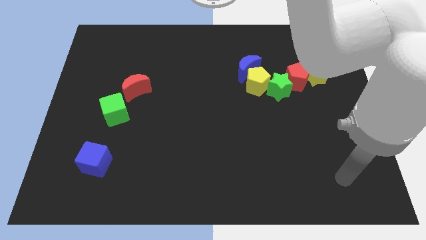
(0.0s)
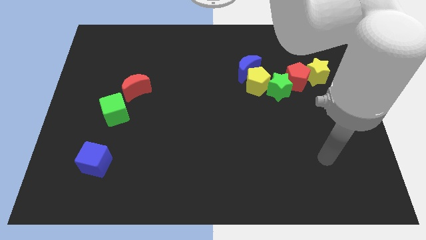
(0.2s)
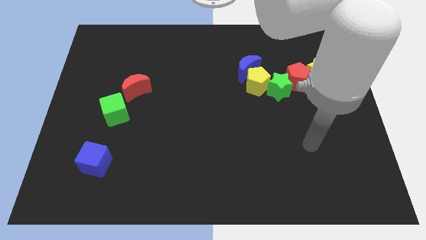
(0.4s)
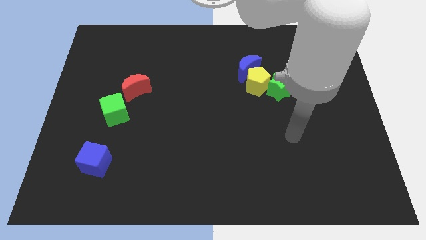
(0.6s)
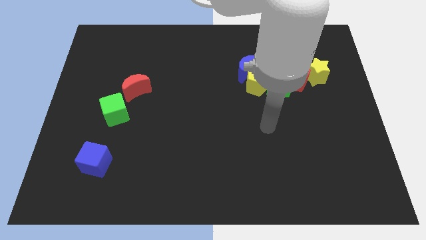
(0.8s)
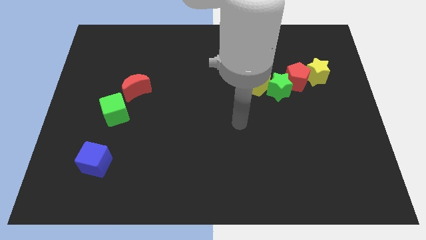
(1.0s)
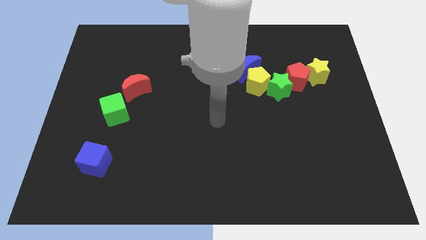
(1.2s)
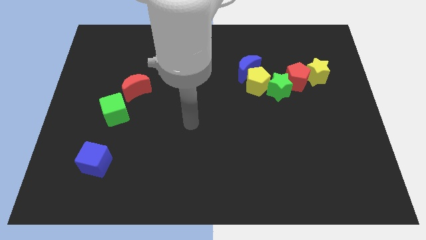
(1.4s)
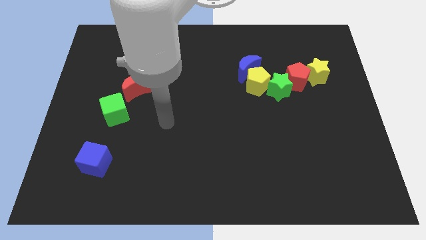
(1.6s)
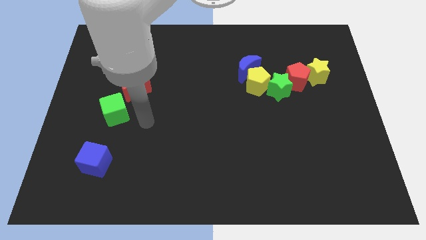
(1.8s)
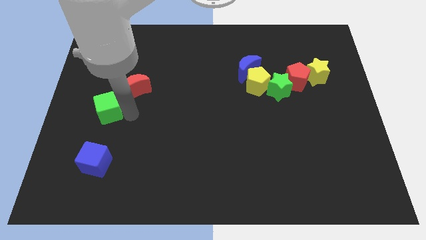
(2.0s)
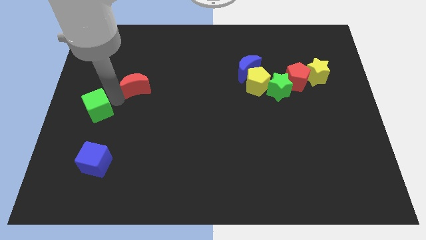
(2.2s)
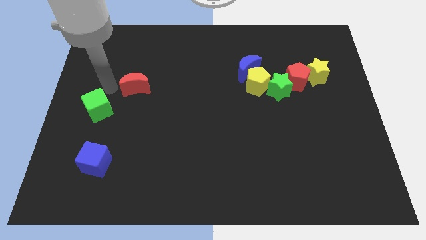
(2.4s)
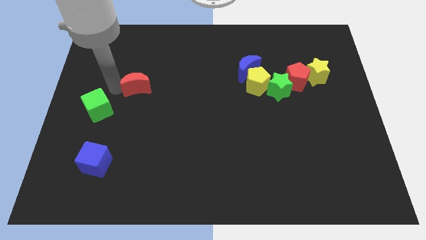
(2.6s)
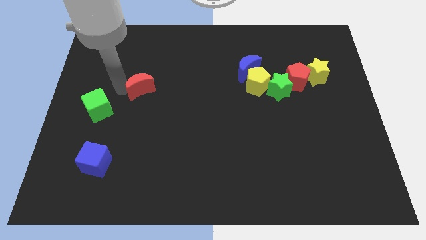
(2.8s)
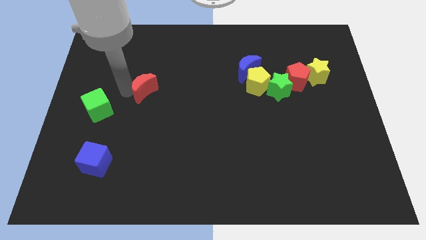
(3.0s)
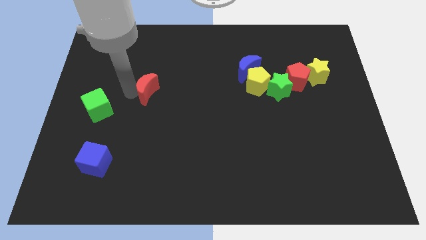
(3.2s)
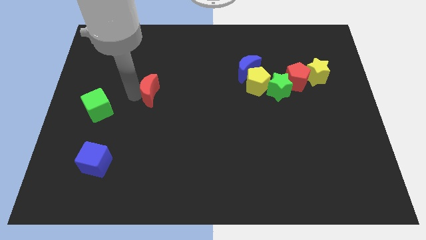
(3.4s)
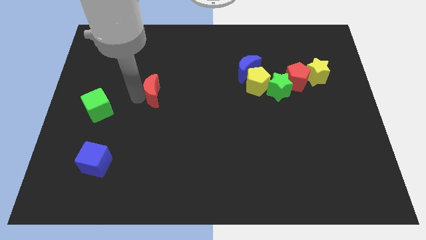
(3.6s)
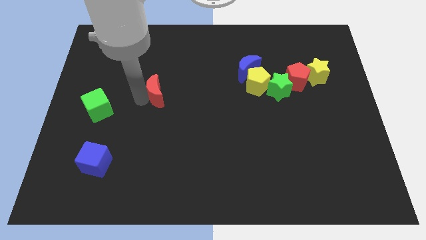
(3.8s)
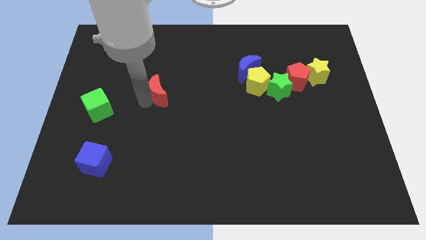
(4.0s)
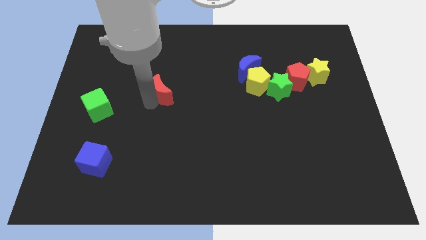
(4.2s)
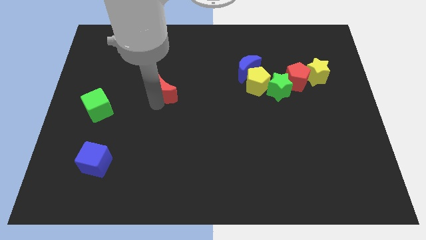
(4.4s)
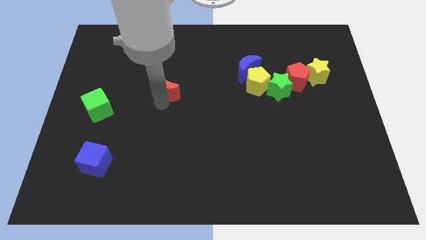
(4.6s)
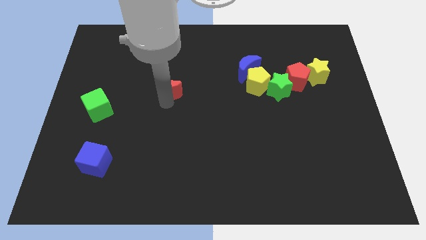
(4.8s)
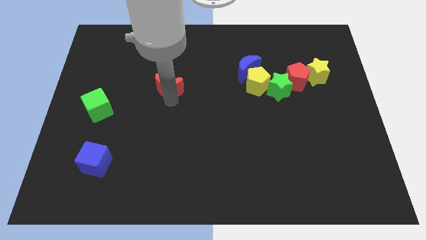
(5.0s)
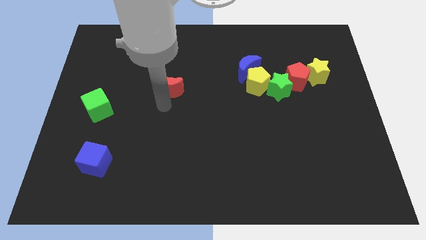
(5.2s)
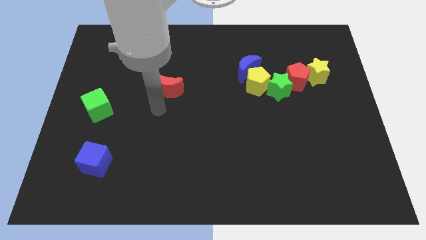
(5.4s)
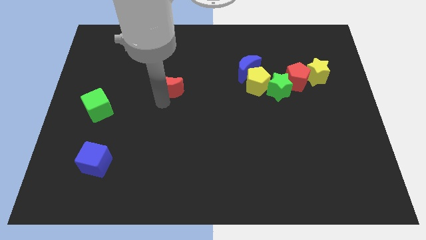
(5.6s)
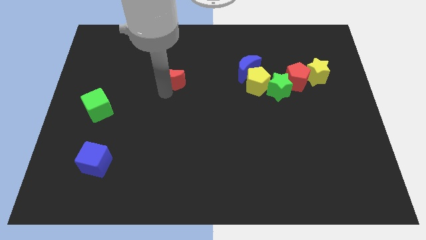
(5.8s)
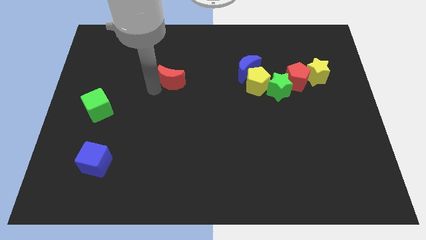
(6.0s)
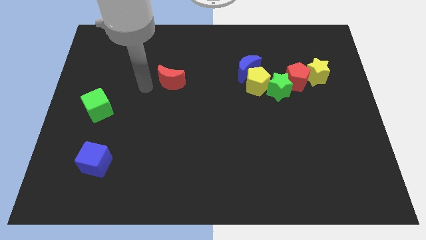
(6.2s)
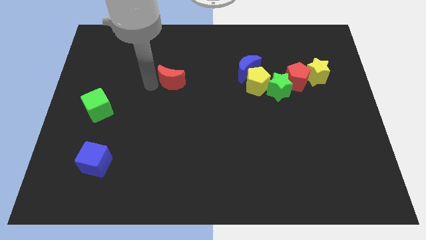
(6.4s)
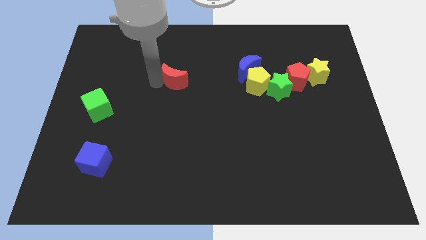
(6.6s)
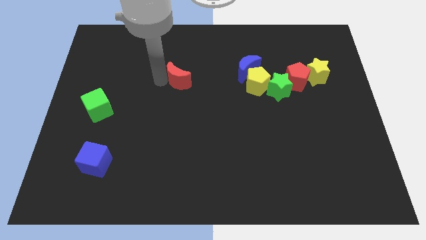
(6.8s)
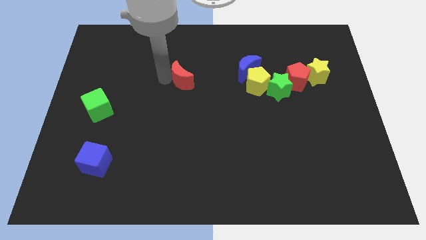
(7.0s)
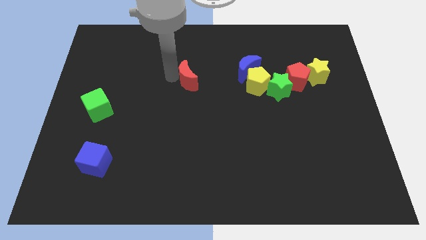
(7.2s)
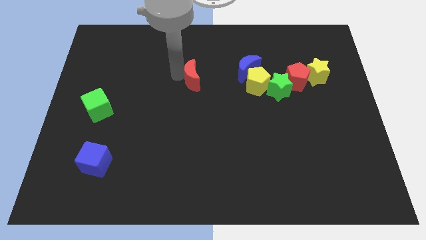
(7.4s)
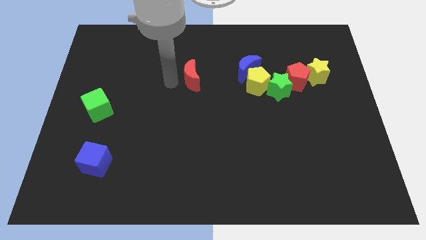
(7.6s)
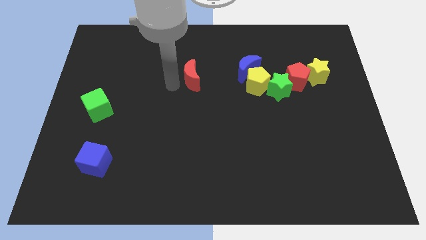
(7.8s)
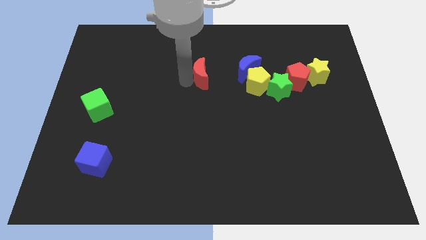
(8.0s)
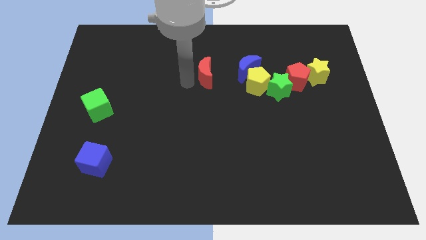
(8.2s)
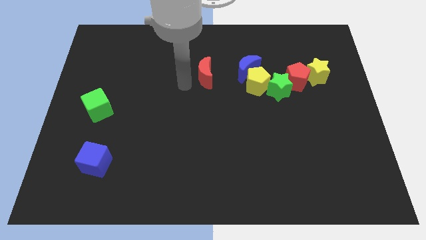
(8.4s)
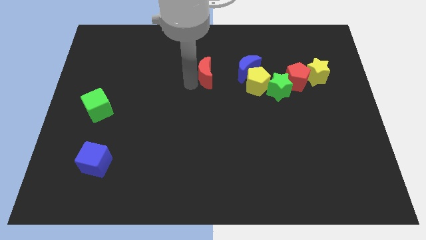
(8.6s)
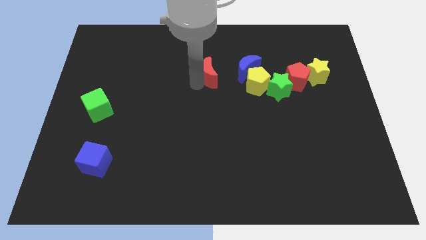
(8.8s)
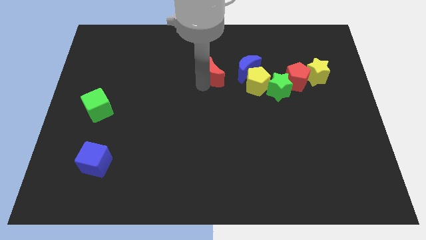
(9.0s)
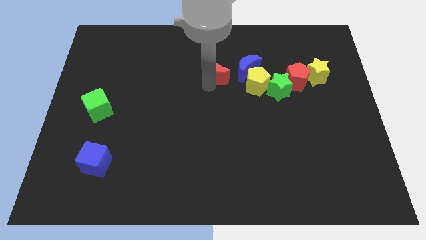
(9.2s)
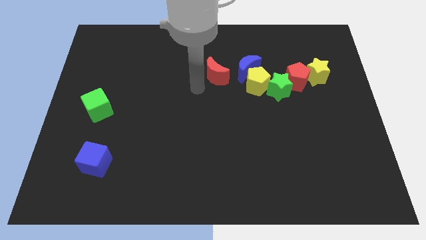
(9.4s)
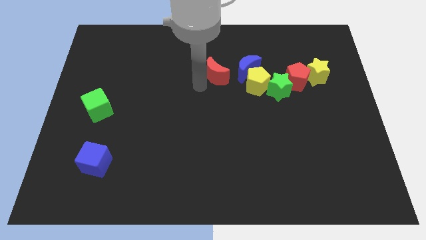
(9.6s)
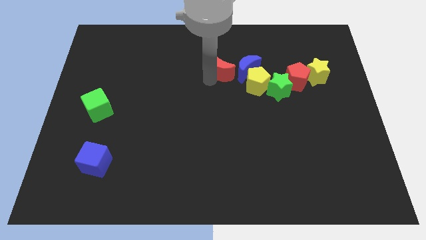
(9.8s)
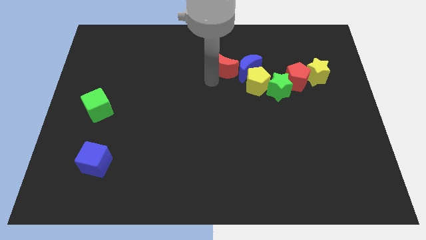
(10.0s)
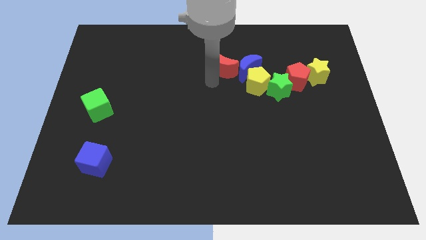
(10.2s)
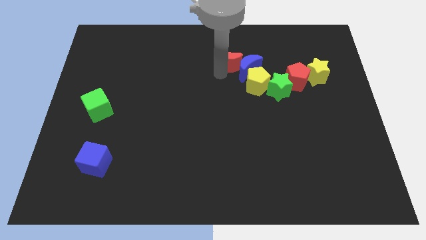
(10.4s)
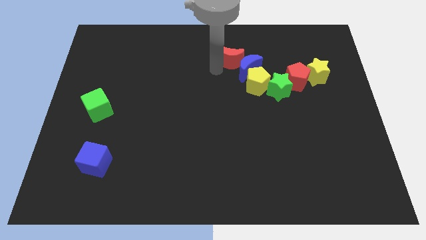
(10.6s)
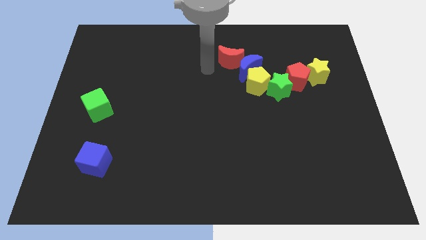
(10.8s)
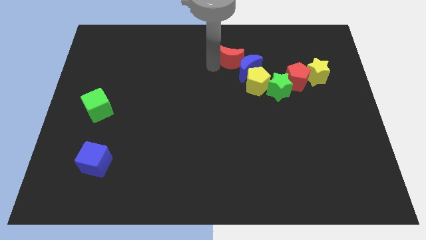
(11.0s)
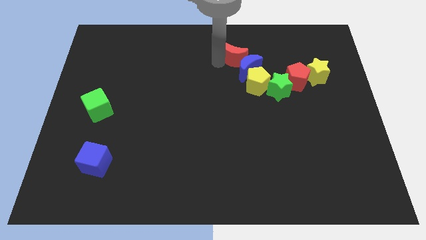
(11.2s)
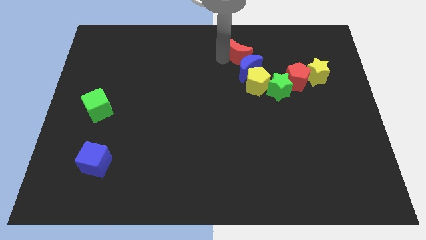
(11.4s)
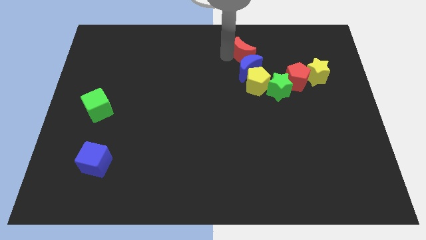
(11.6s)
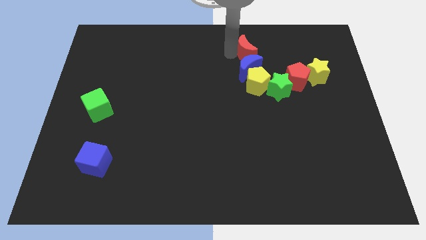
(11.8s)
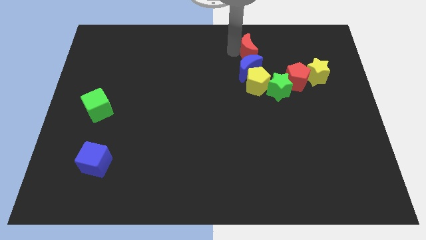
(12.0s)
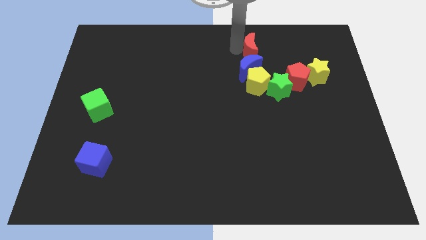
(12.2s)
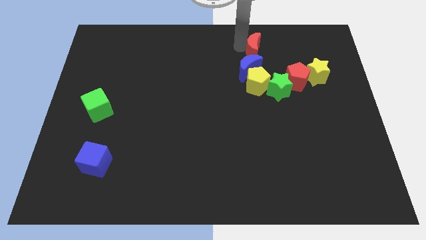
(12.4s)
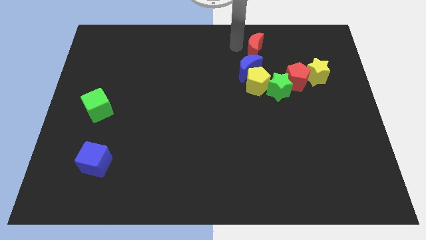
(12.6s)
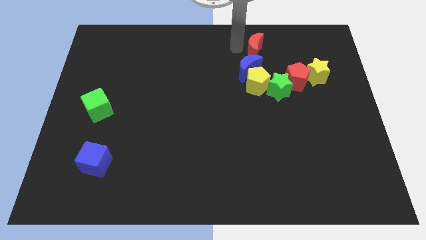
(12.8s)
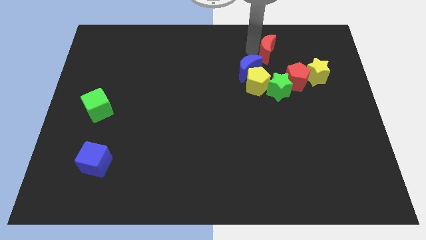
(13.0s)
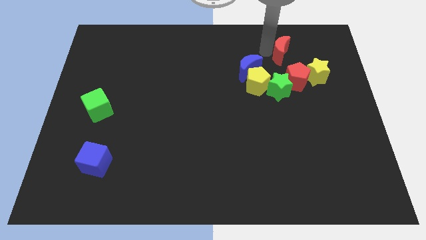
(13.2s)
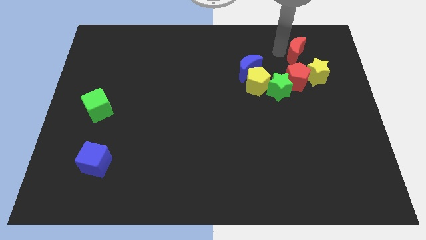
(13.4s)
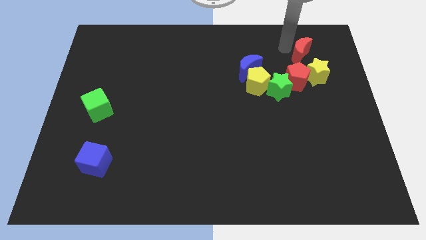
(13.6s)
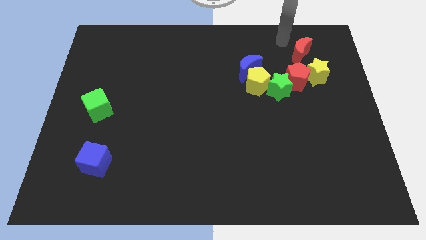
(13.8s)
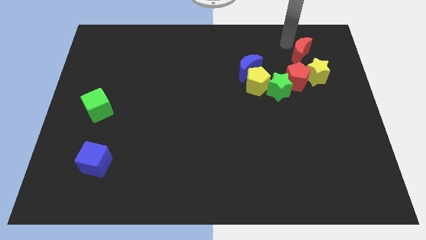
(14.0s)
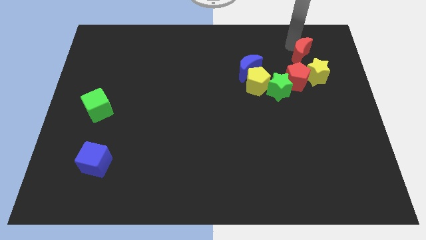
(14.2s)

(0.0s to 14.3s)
move the red moon to the top right of the red pentagon
